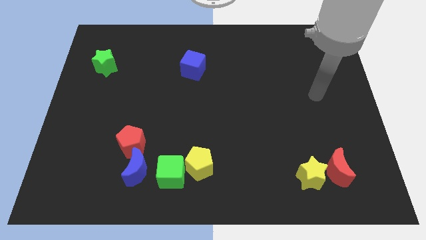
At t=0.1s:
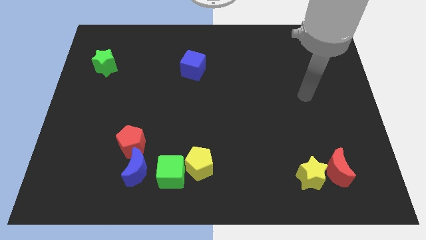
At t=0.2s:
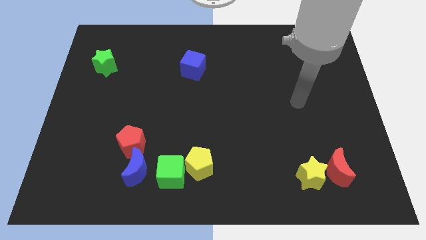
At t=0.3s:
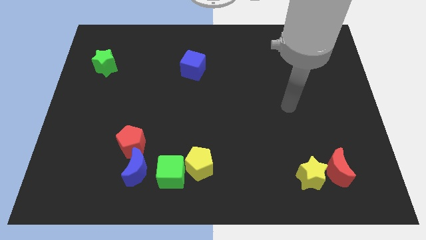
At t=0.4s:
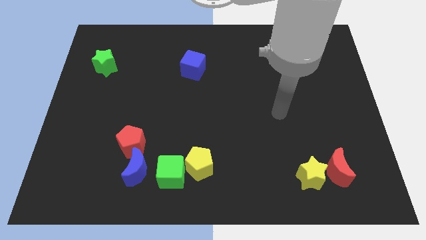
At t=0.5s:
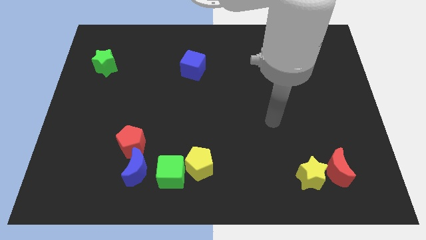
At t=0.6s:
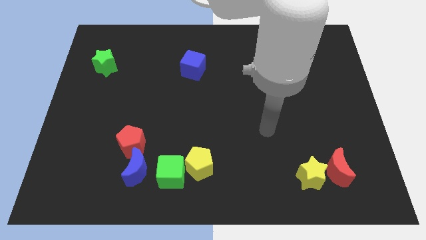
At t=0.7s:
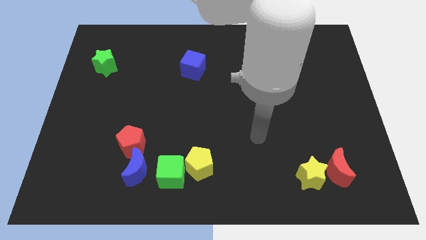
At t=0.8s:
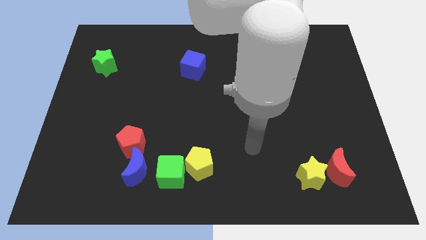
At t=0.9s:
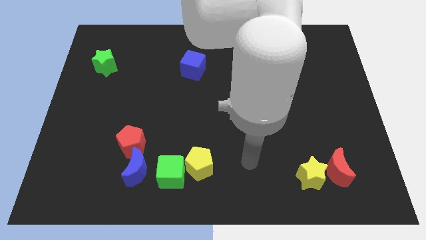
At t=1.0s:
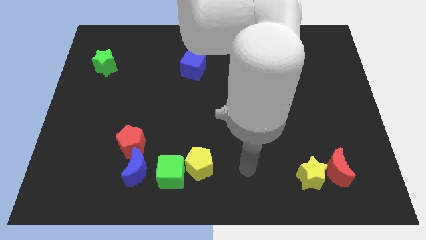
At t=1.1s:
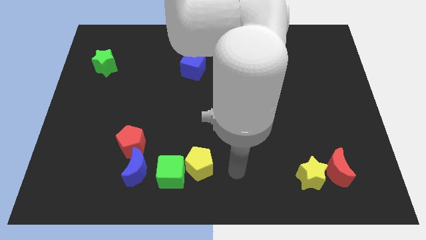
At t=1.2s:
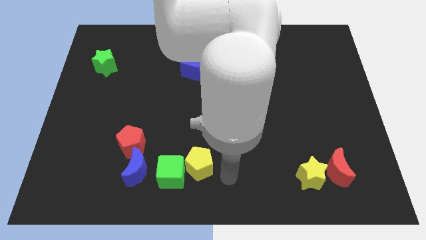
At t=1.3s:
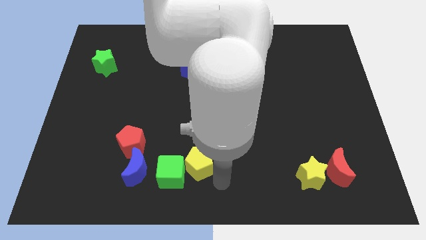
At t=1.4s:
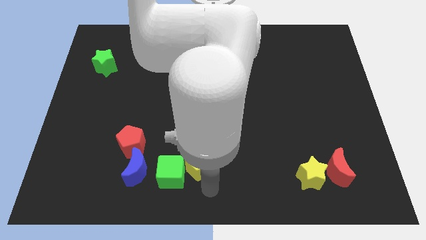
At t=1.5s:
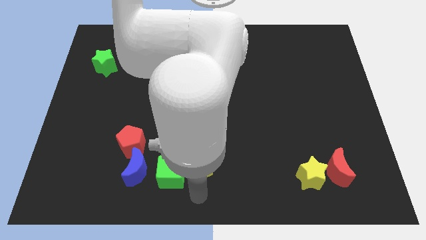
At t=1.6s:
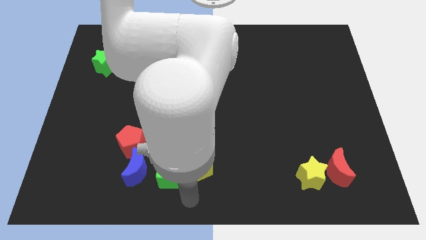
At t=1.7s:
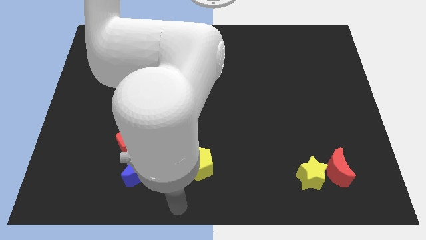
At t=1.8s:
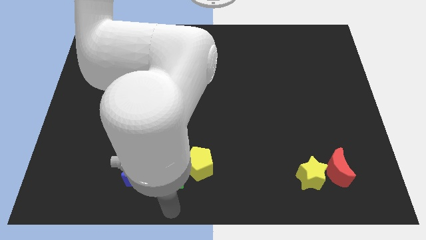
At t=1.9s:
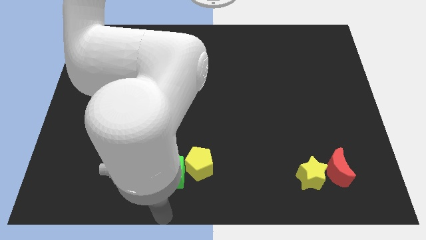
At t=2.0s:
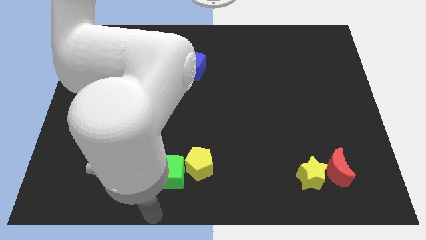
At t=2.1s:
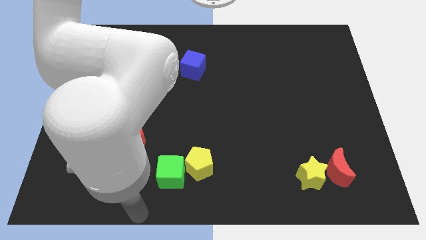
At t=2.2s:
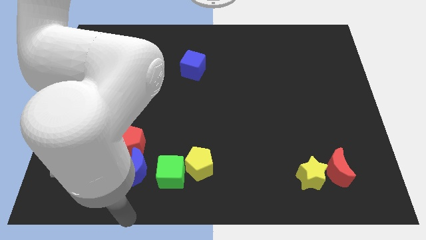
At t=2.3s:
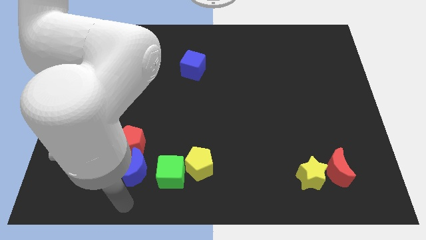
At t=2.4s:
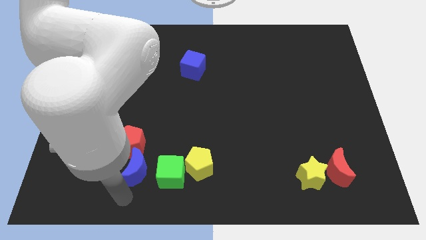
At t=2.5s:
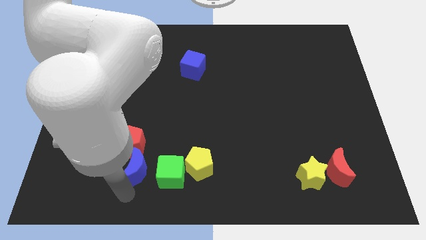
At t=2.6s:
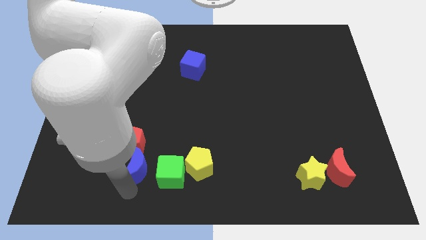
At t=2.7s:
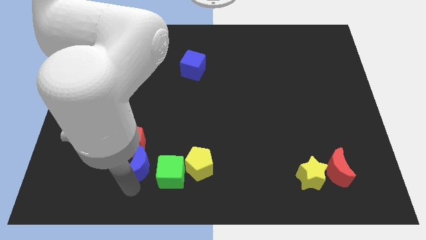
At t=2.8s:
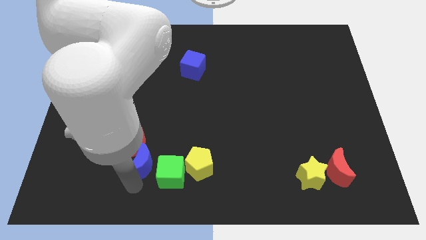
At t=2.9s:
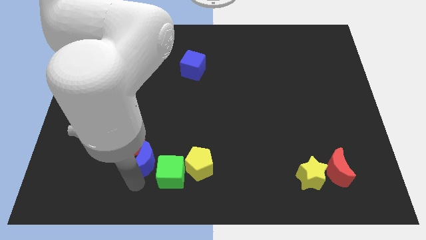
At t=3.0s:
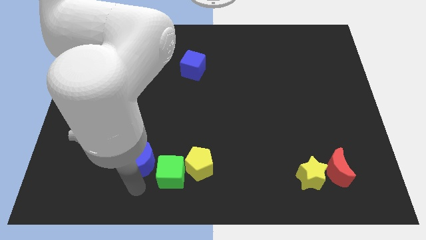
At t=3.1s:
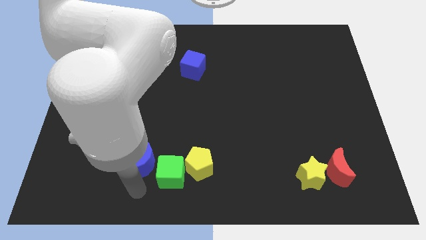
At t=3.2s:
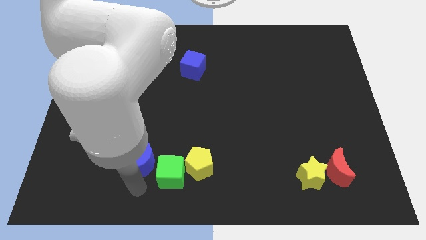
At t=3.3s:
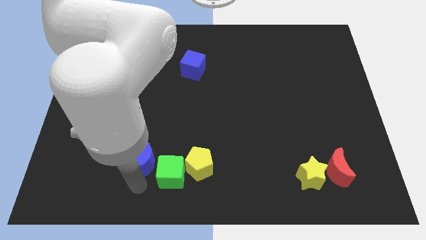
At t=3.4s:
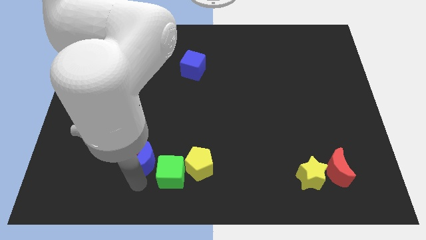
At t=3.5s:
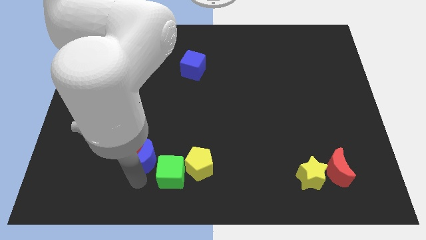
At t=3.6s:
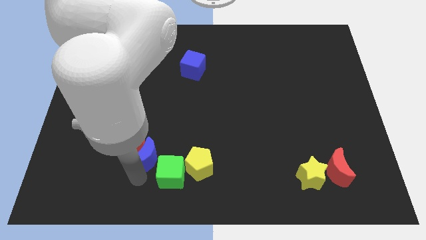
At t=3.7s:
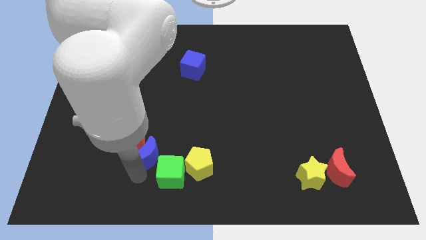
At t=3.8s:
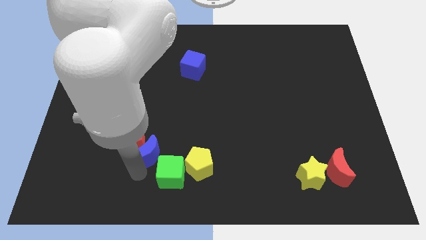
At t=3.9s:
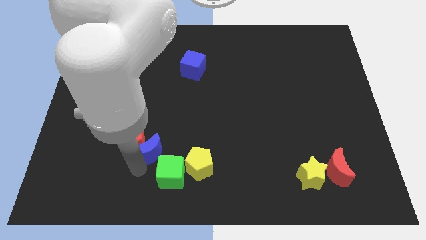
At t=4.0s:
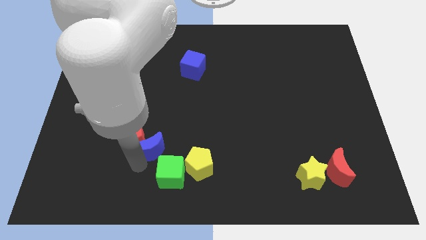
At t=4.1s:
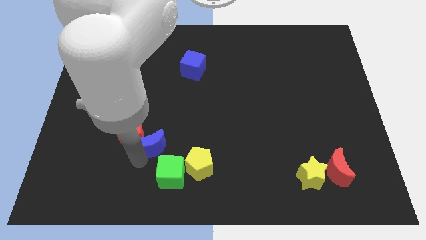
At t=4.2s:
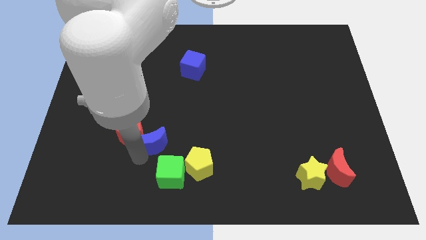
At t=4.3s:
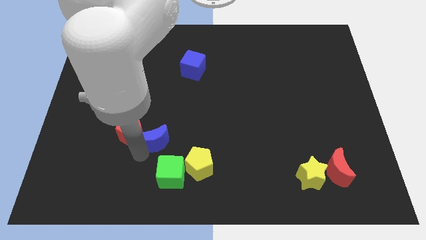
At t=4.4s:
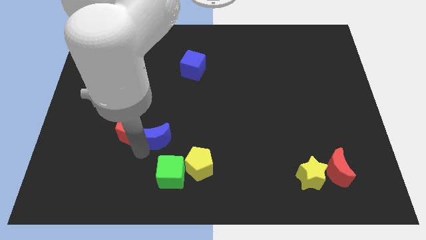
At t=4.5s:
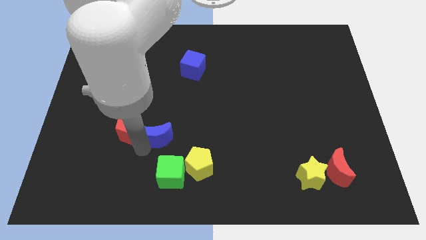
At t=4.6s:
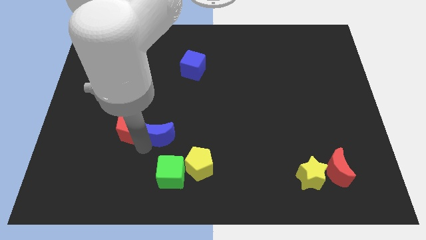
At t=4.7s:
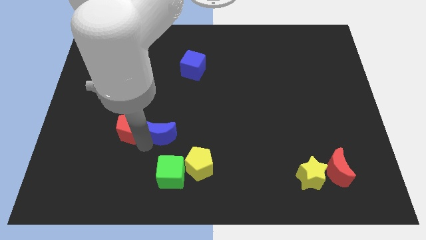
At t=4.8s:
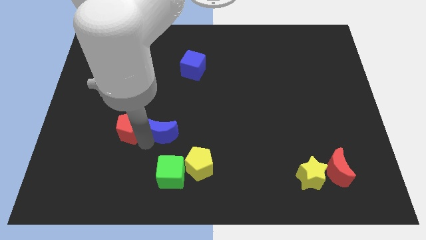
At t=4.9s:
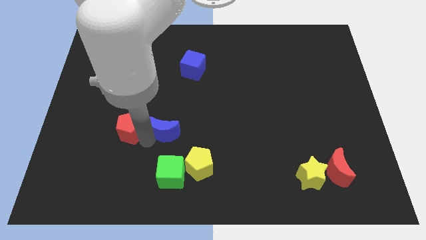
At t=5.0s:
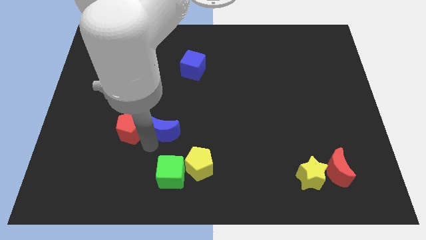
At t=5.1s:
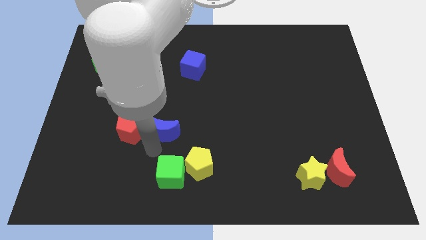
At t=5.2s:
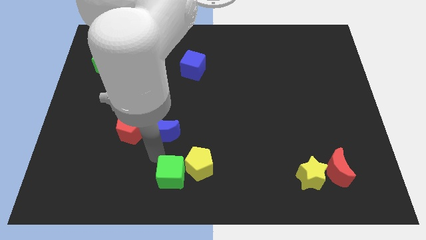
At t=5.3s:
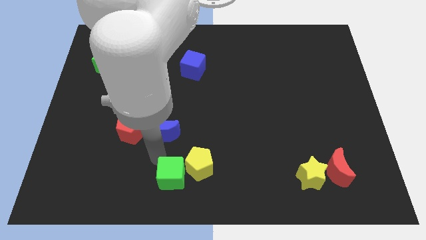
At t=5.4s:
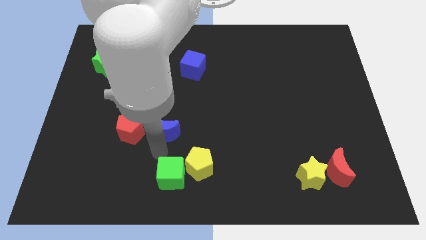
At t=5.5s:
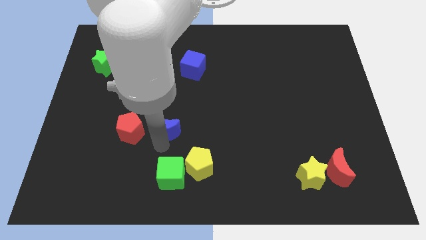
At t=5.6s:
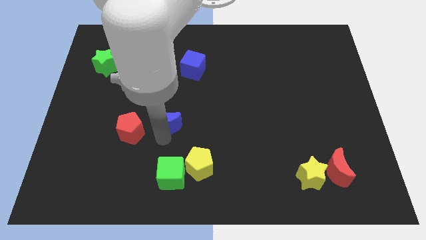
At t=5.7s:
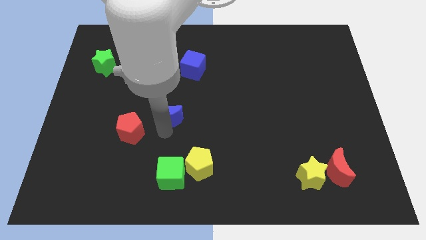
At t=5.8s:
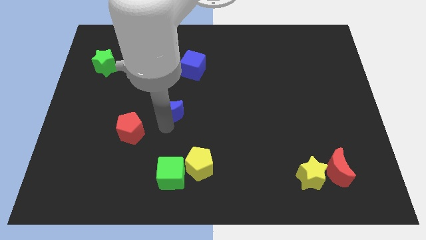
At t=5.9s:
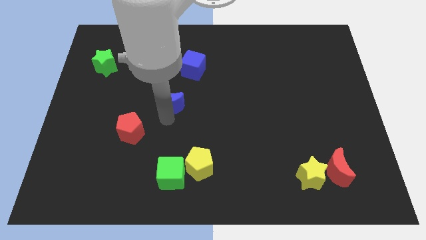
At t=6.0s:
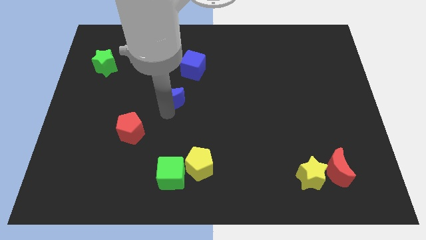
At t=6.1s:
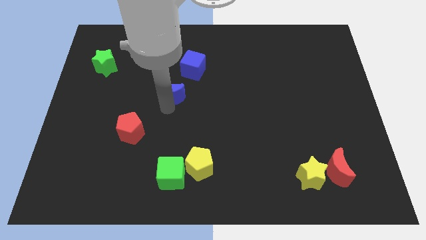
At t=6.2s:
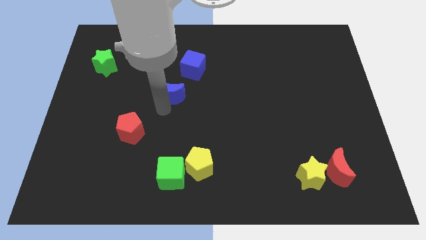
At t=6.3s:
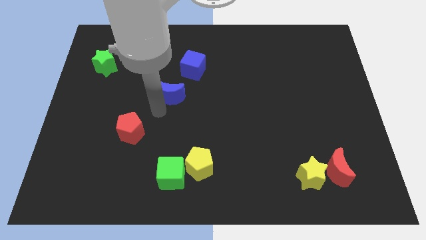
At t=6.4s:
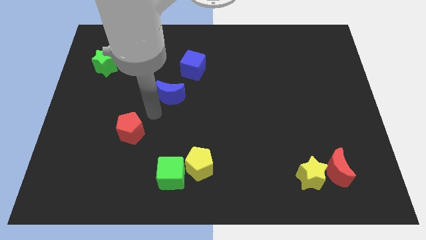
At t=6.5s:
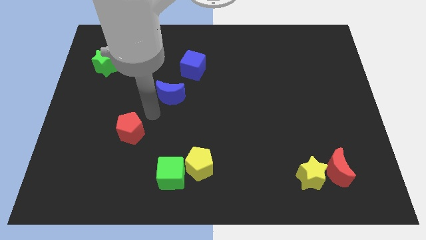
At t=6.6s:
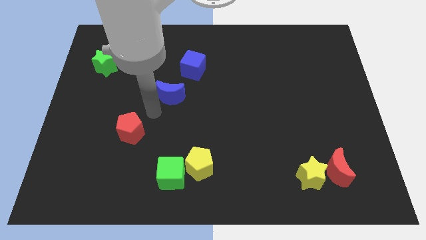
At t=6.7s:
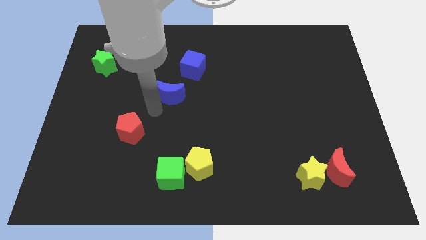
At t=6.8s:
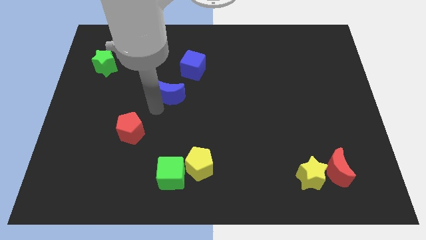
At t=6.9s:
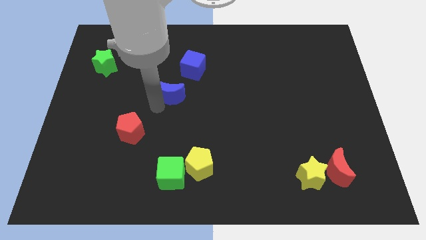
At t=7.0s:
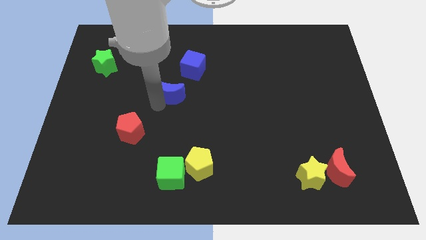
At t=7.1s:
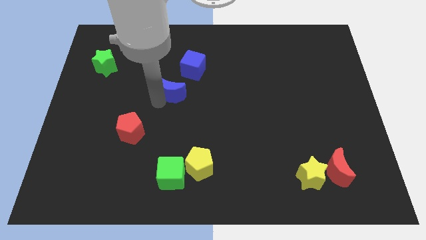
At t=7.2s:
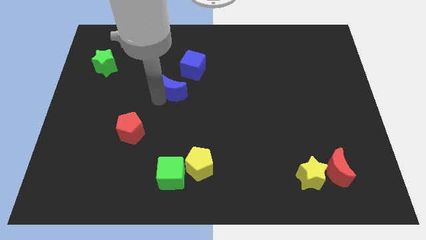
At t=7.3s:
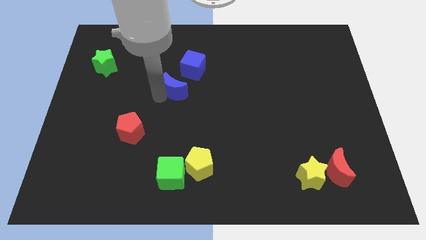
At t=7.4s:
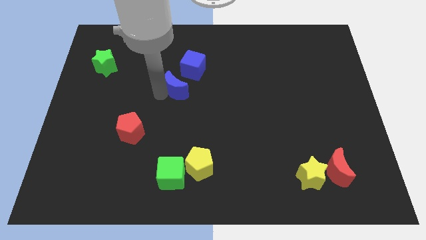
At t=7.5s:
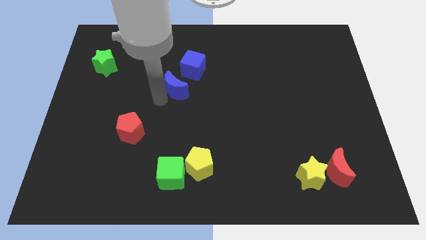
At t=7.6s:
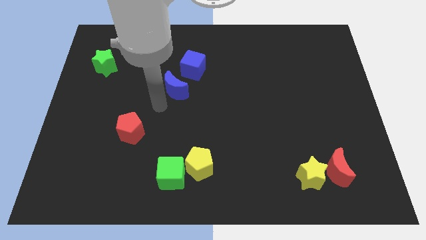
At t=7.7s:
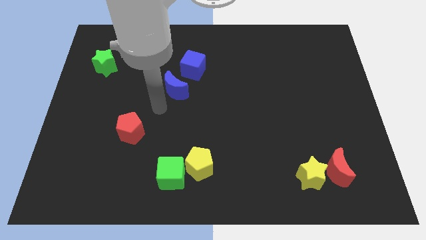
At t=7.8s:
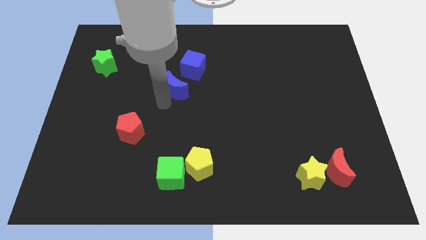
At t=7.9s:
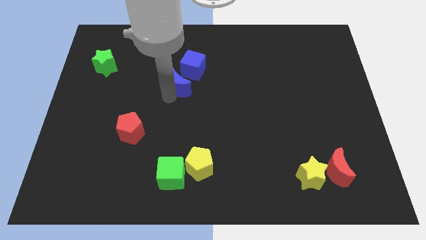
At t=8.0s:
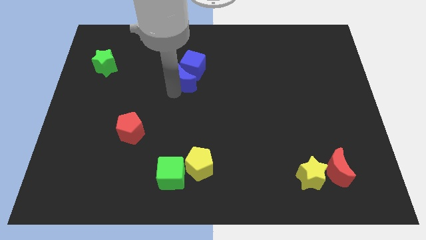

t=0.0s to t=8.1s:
put the blue moon towards the blue cube
